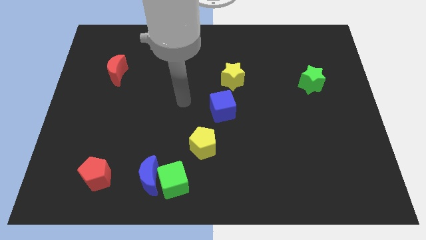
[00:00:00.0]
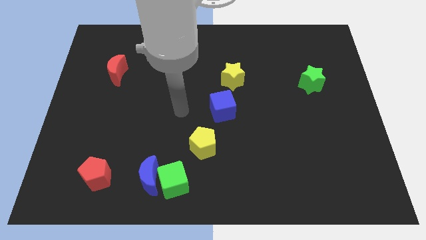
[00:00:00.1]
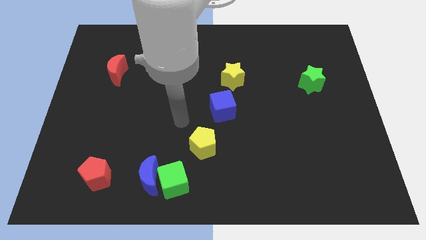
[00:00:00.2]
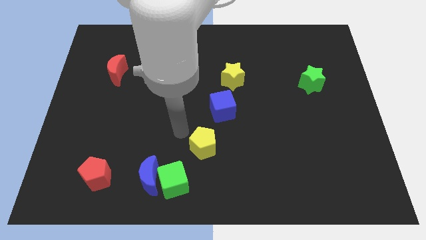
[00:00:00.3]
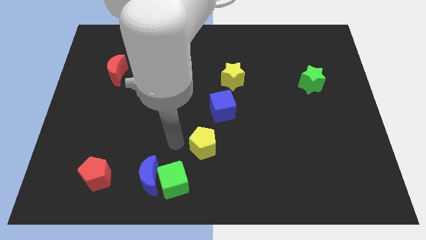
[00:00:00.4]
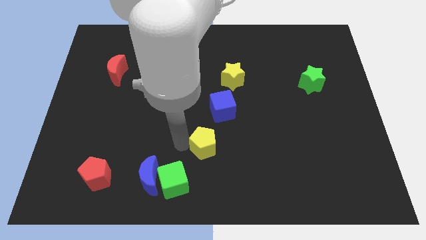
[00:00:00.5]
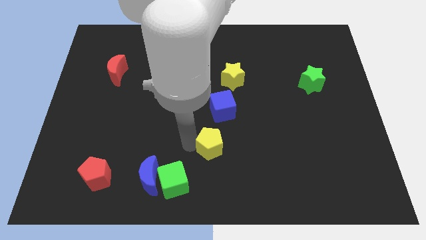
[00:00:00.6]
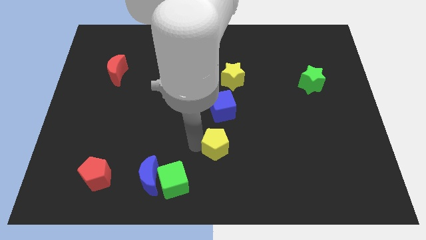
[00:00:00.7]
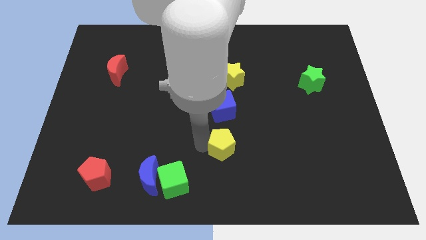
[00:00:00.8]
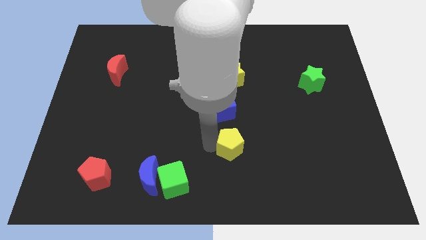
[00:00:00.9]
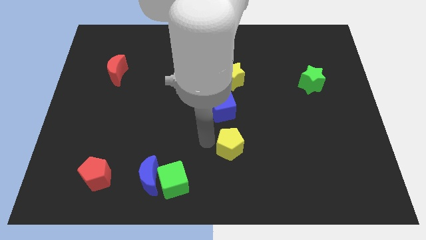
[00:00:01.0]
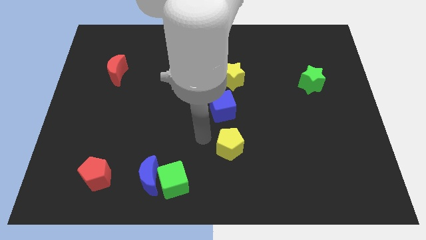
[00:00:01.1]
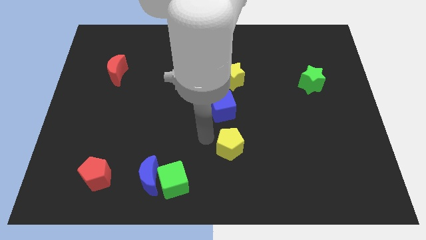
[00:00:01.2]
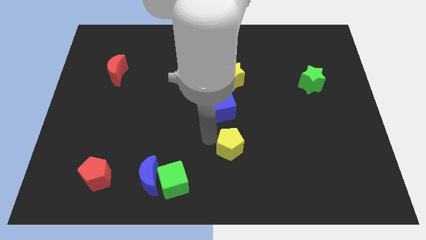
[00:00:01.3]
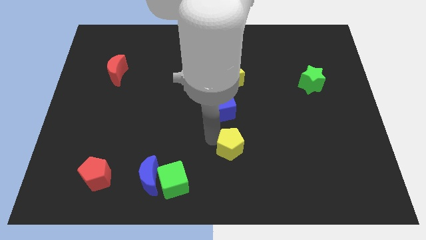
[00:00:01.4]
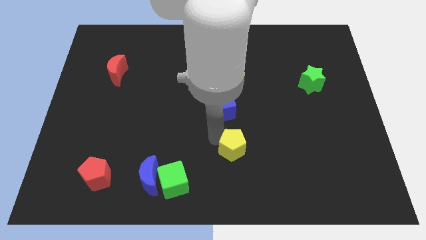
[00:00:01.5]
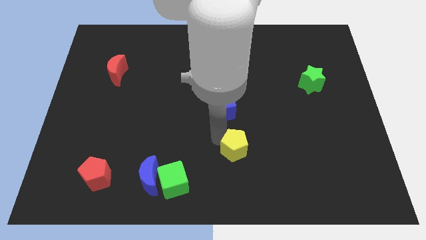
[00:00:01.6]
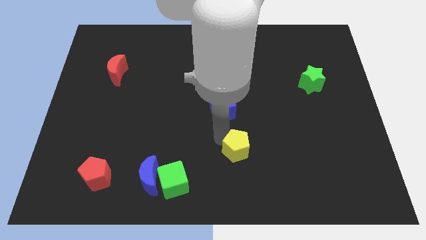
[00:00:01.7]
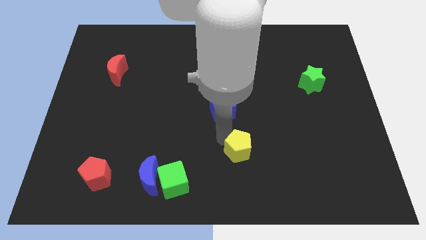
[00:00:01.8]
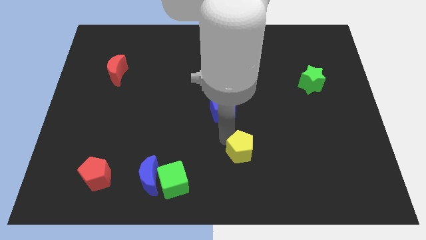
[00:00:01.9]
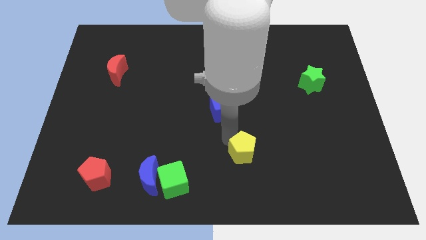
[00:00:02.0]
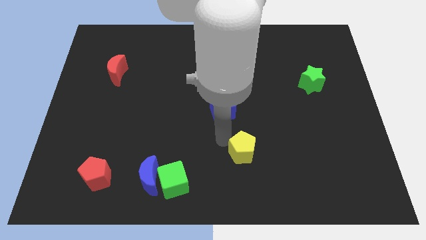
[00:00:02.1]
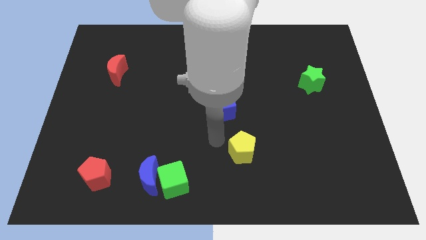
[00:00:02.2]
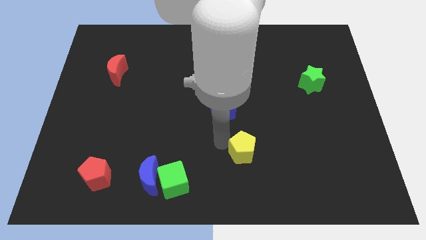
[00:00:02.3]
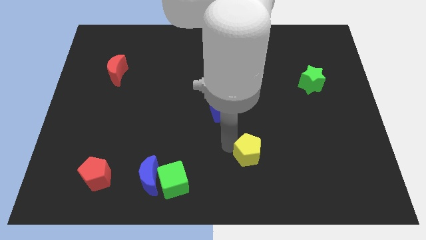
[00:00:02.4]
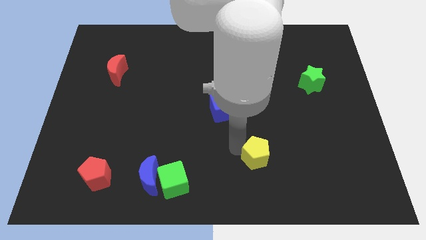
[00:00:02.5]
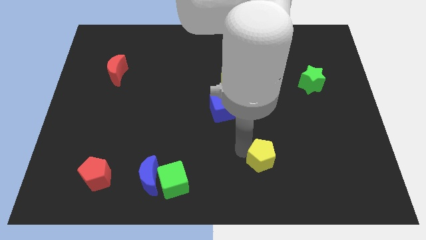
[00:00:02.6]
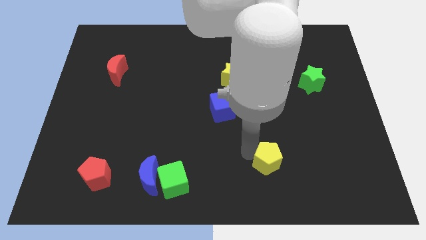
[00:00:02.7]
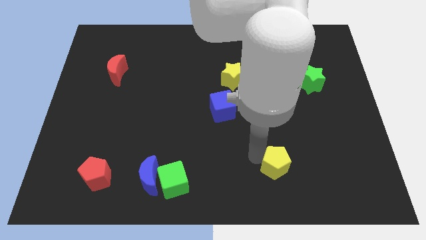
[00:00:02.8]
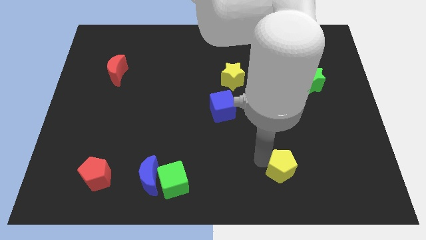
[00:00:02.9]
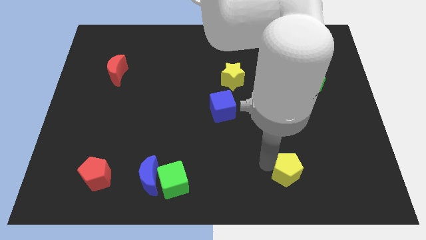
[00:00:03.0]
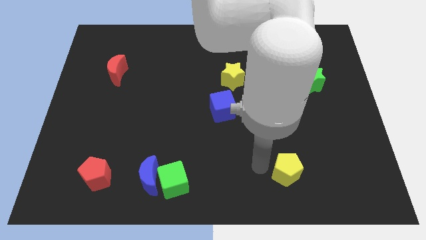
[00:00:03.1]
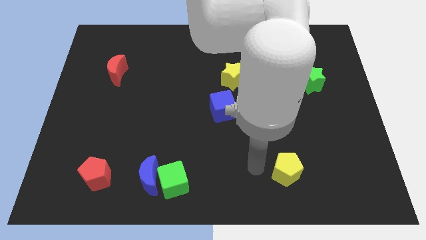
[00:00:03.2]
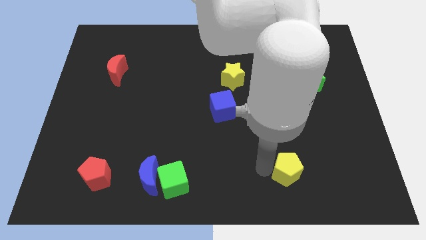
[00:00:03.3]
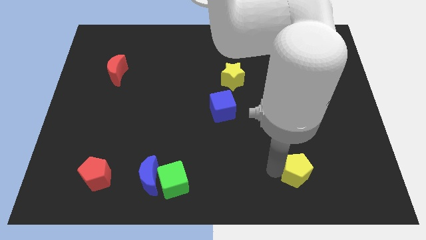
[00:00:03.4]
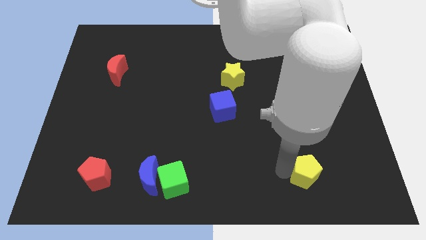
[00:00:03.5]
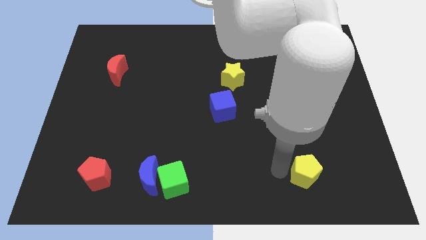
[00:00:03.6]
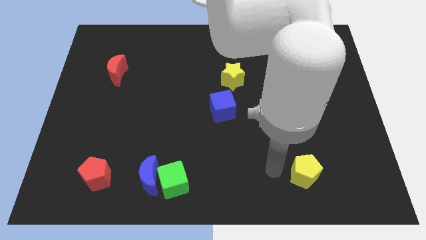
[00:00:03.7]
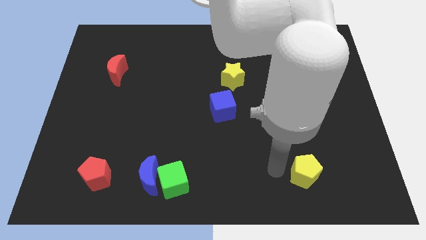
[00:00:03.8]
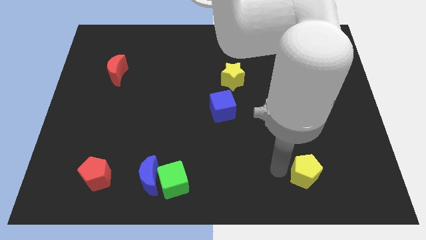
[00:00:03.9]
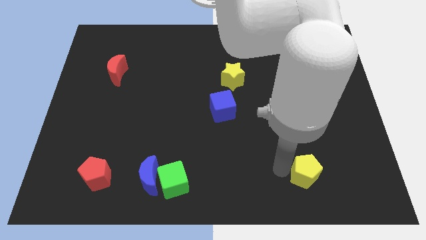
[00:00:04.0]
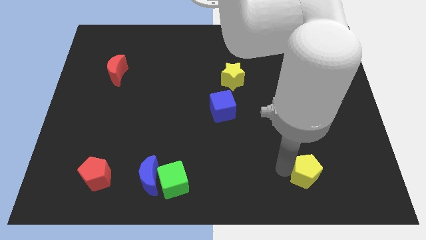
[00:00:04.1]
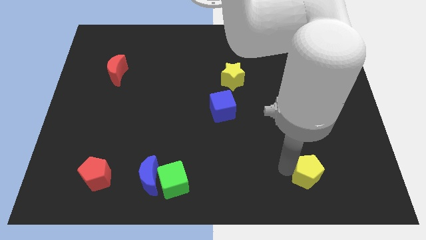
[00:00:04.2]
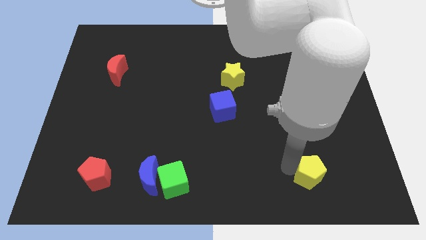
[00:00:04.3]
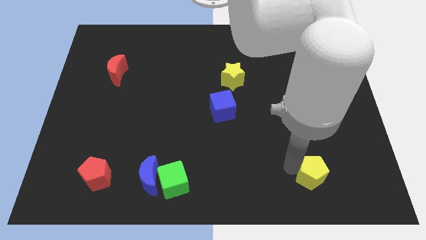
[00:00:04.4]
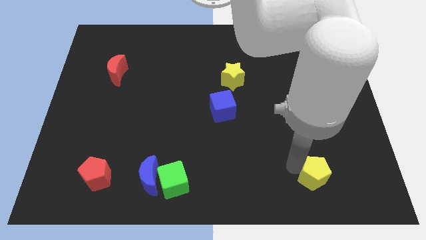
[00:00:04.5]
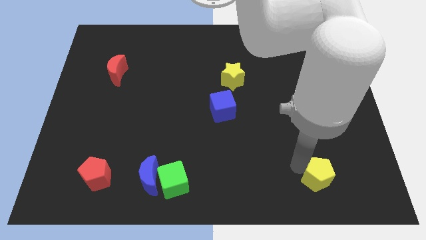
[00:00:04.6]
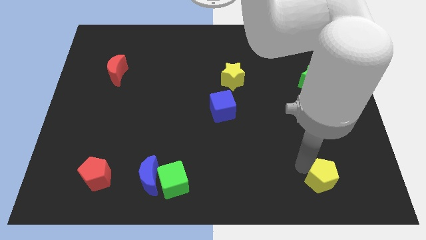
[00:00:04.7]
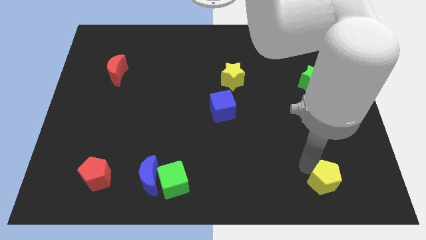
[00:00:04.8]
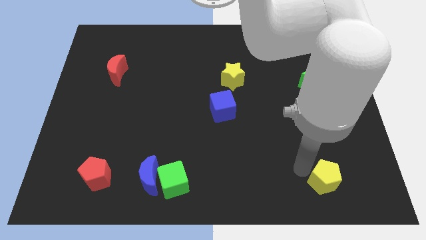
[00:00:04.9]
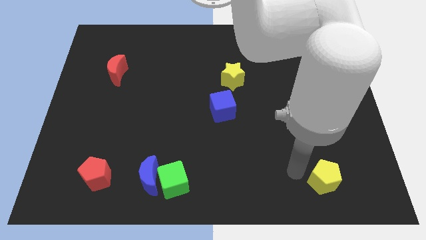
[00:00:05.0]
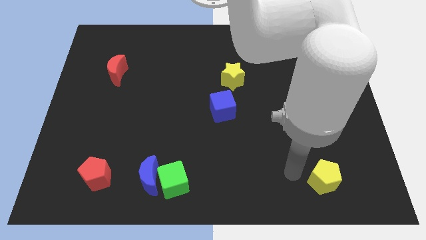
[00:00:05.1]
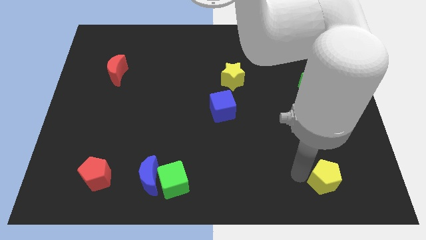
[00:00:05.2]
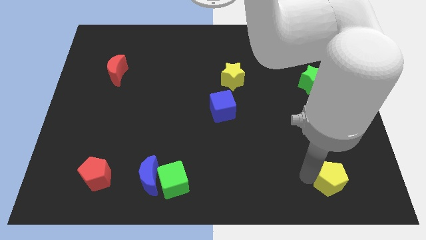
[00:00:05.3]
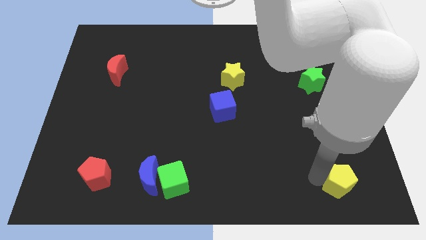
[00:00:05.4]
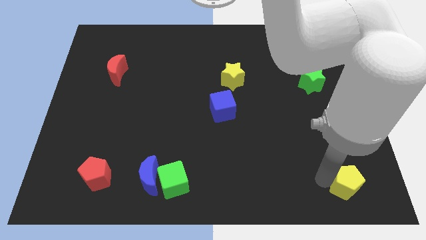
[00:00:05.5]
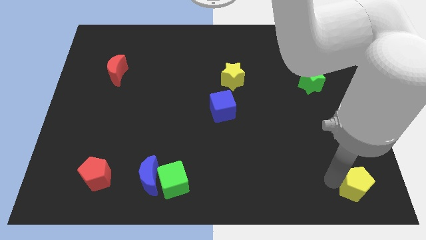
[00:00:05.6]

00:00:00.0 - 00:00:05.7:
move the yellow pentagon to the bottom right of the board

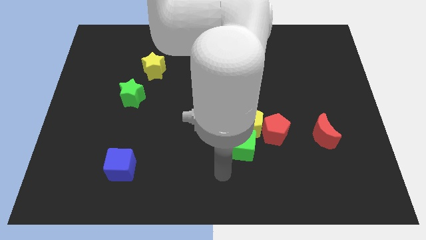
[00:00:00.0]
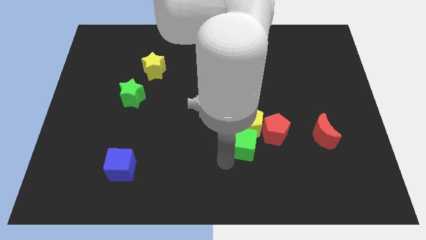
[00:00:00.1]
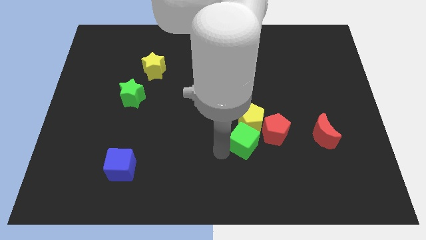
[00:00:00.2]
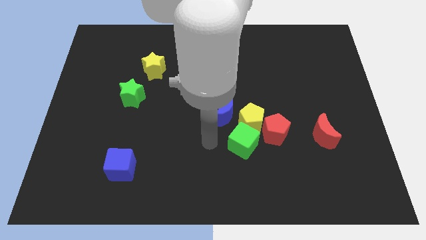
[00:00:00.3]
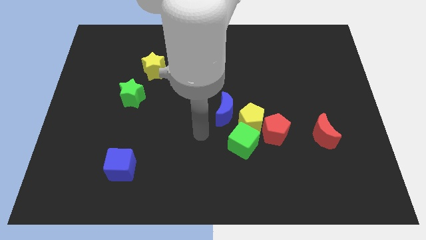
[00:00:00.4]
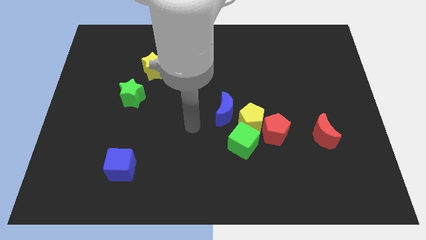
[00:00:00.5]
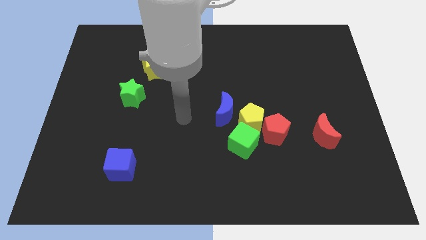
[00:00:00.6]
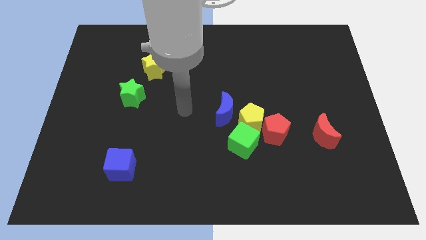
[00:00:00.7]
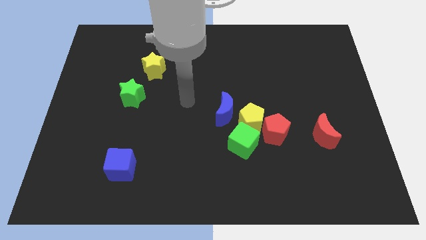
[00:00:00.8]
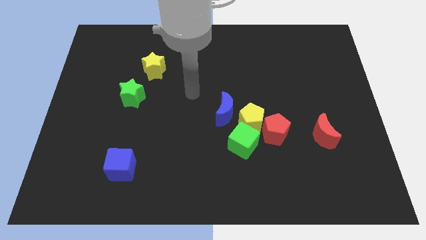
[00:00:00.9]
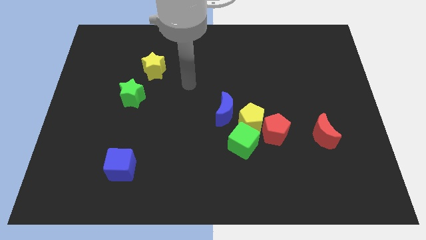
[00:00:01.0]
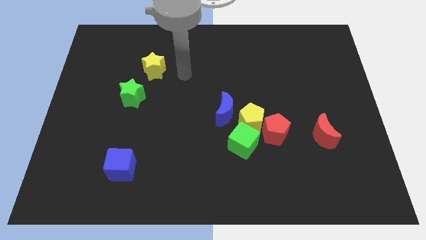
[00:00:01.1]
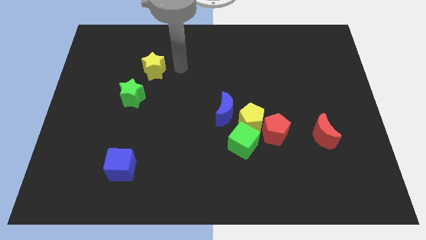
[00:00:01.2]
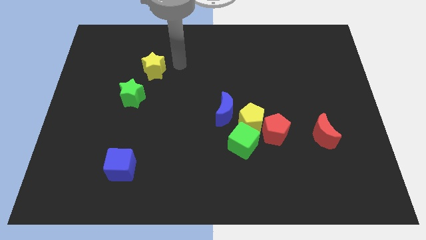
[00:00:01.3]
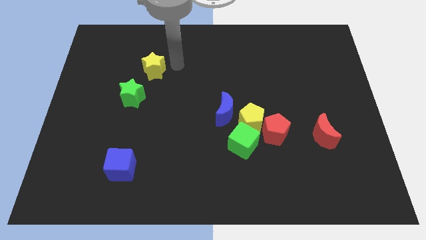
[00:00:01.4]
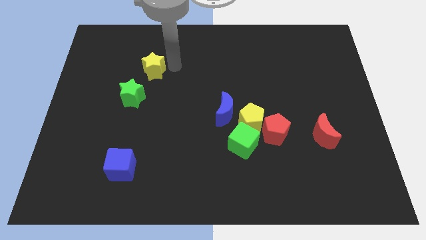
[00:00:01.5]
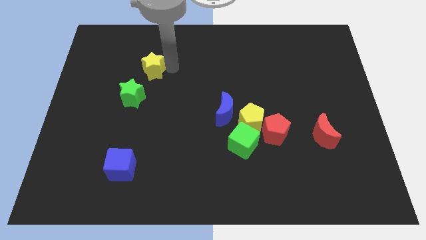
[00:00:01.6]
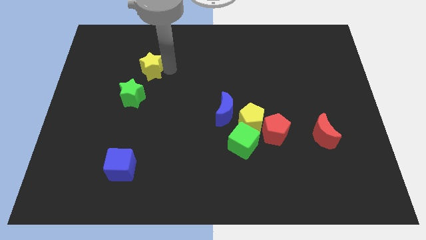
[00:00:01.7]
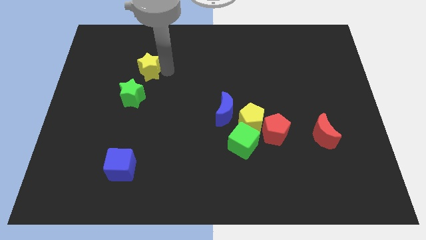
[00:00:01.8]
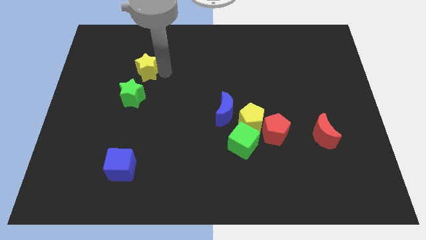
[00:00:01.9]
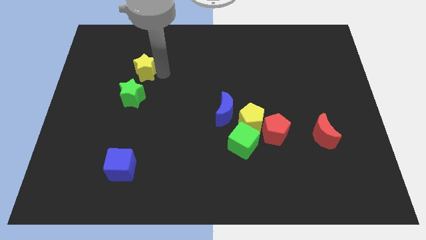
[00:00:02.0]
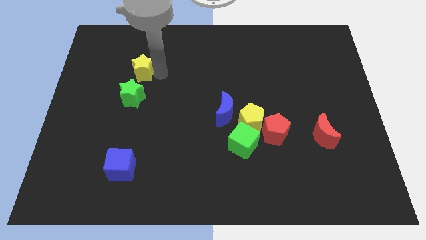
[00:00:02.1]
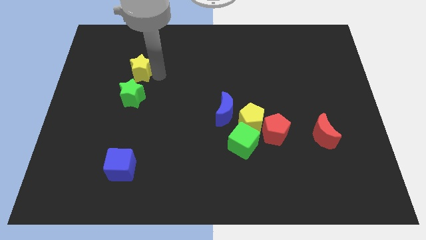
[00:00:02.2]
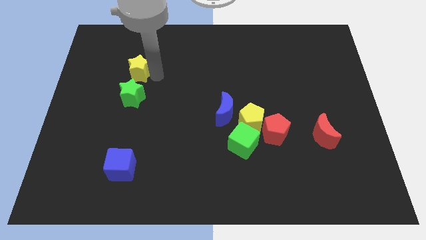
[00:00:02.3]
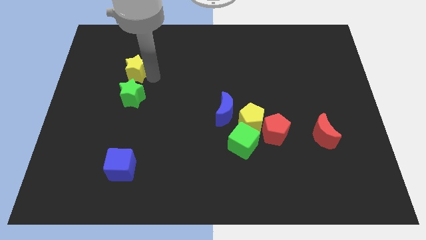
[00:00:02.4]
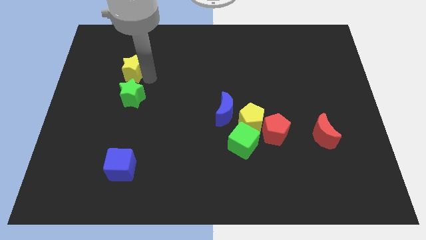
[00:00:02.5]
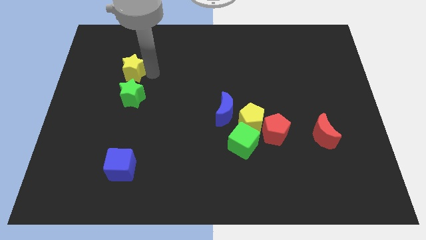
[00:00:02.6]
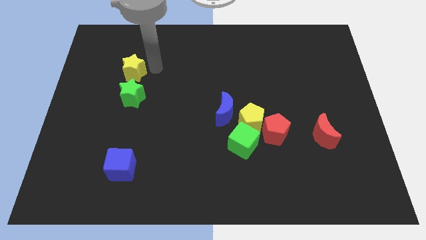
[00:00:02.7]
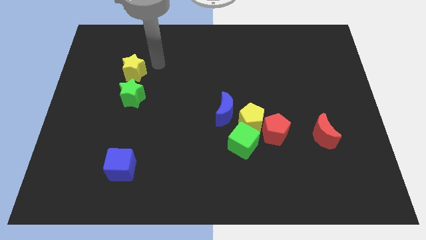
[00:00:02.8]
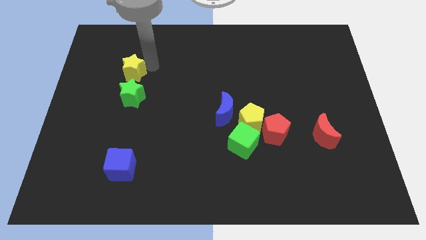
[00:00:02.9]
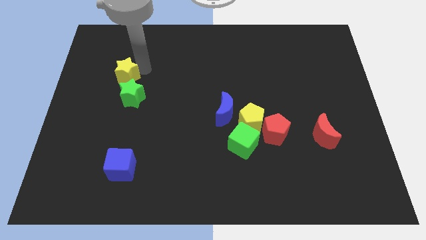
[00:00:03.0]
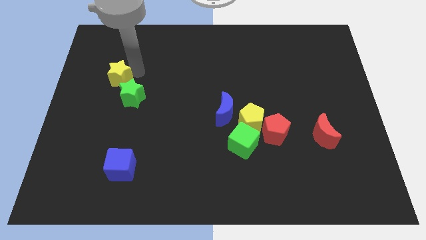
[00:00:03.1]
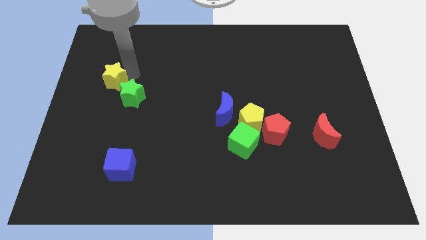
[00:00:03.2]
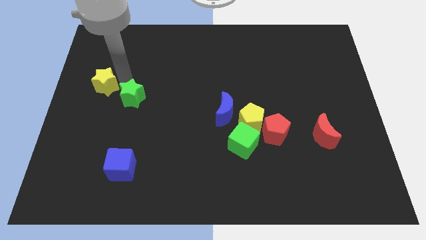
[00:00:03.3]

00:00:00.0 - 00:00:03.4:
push the yellow star to the left side
